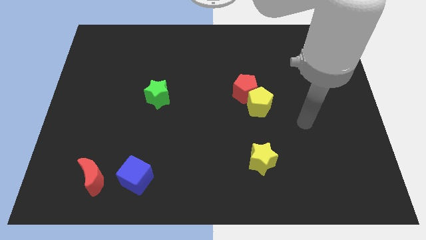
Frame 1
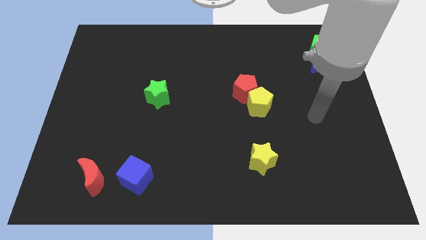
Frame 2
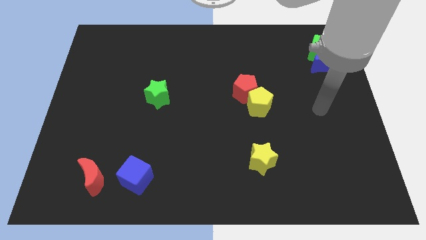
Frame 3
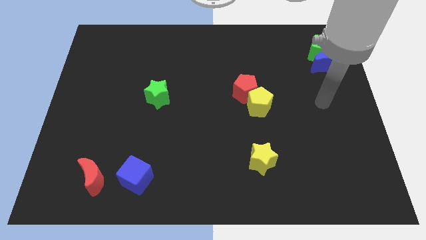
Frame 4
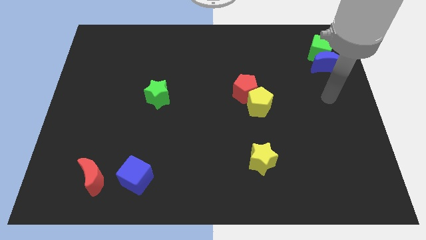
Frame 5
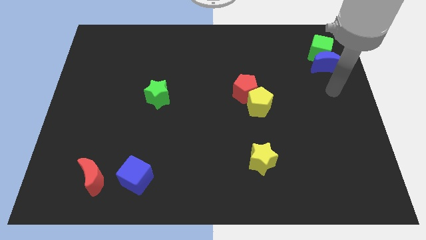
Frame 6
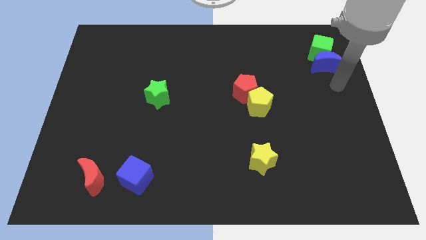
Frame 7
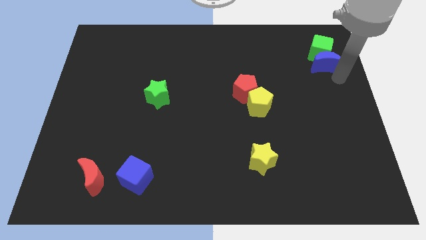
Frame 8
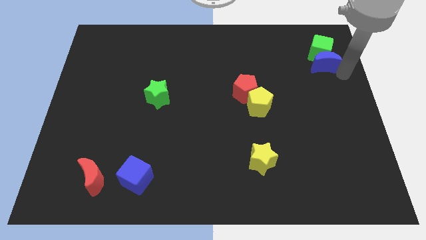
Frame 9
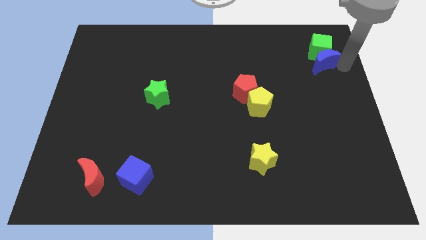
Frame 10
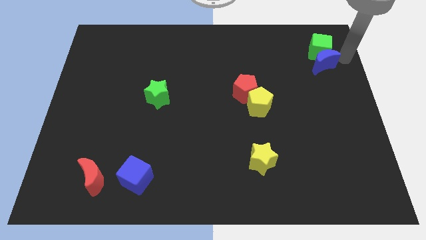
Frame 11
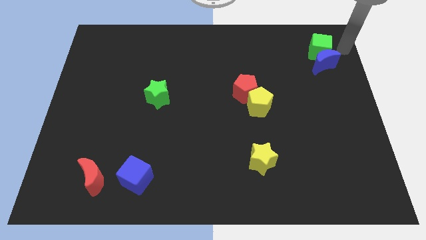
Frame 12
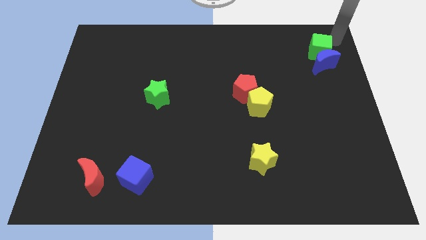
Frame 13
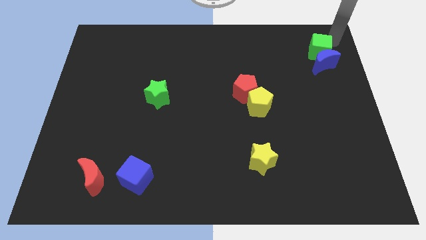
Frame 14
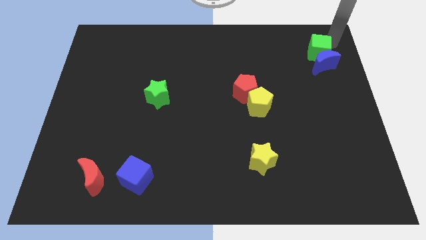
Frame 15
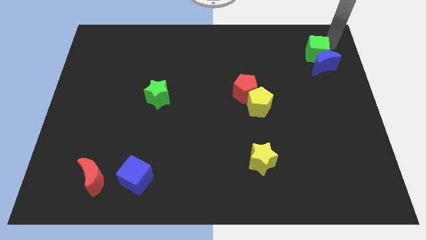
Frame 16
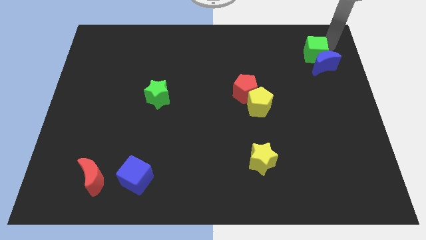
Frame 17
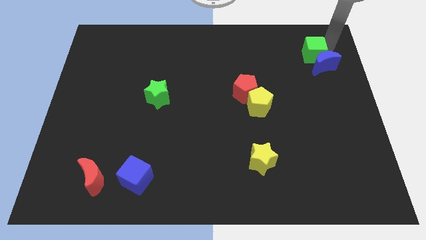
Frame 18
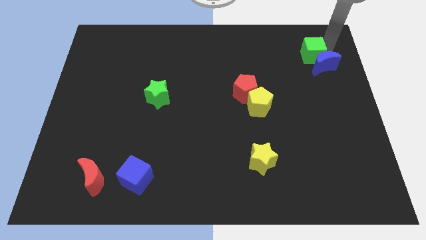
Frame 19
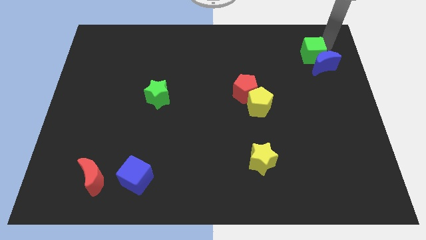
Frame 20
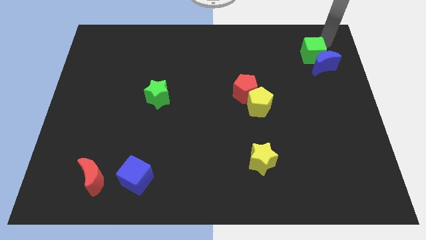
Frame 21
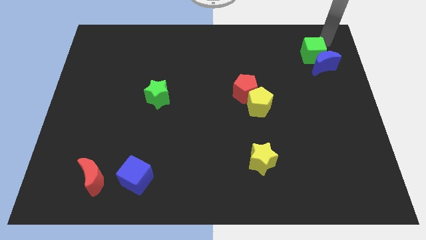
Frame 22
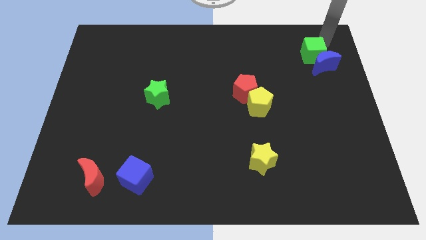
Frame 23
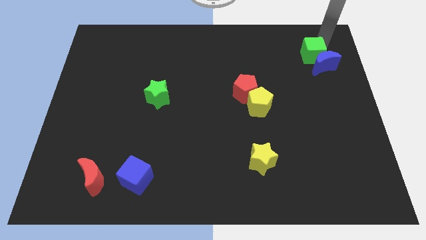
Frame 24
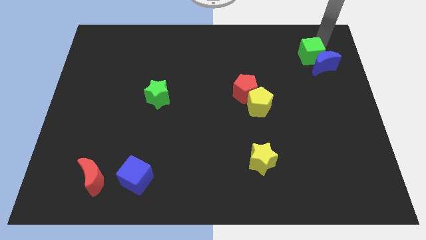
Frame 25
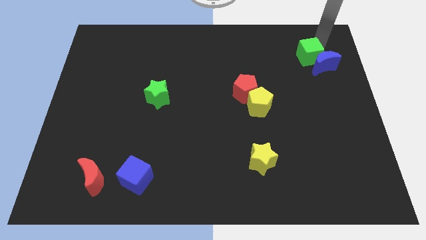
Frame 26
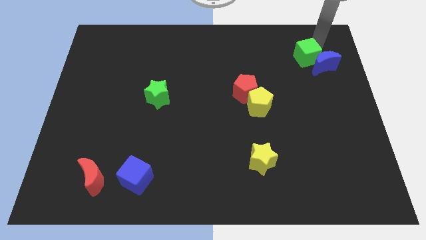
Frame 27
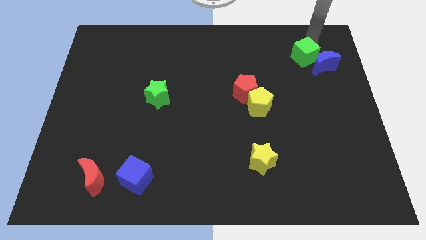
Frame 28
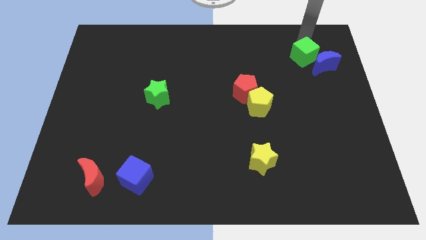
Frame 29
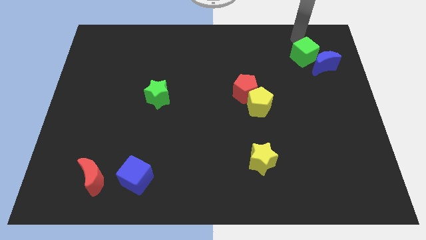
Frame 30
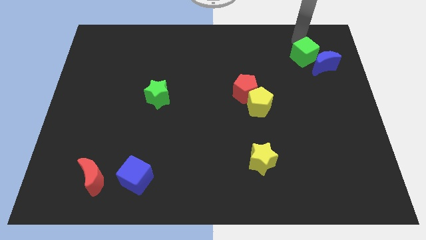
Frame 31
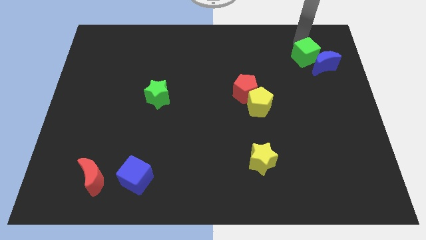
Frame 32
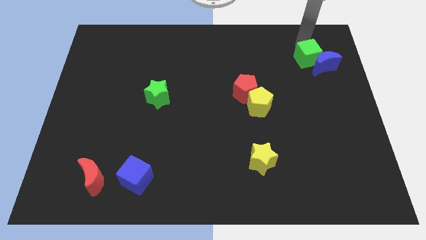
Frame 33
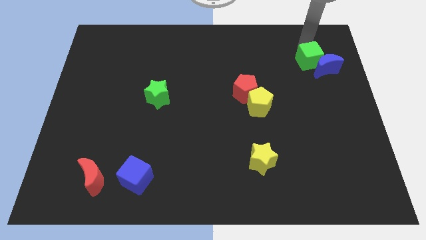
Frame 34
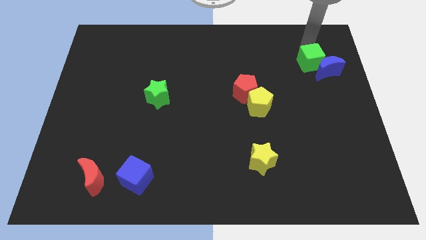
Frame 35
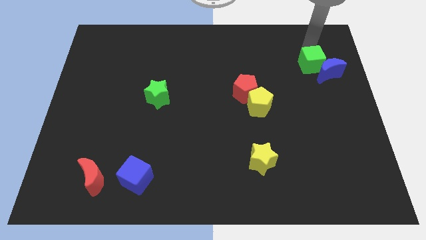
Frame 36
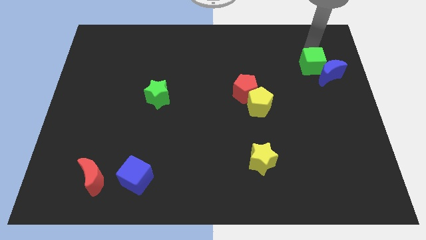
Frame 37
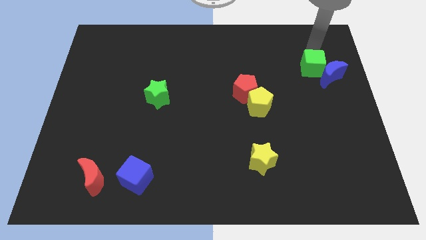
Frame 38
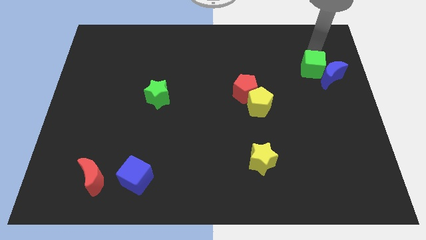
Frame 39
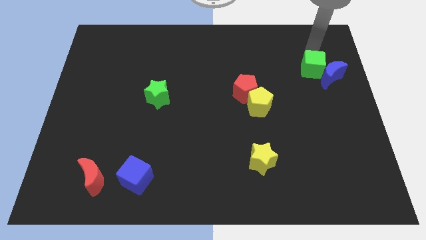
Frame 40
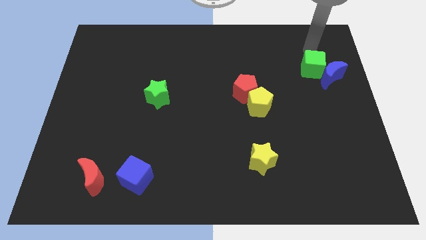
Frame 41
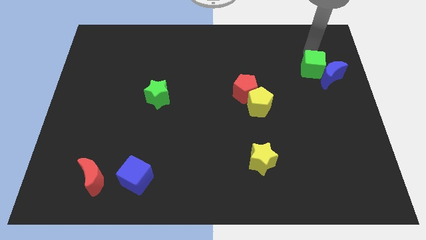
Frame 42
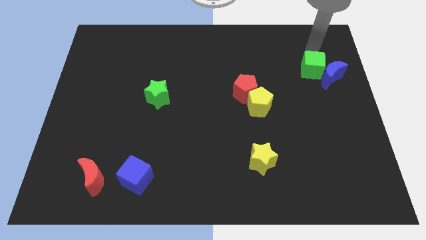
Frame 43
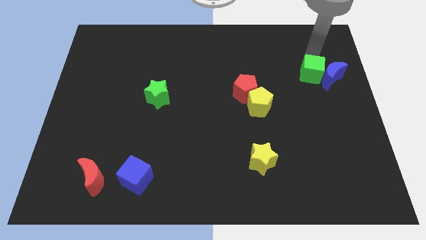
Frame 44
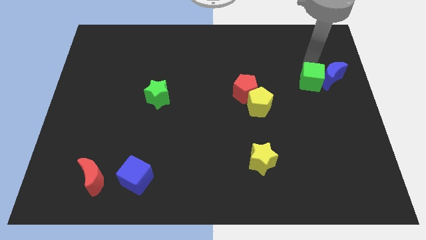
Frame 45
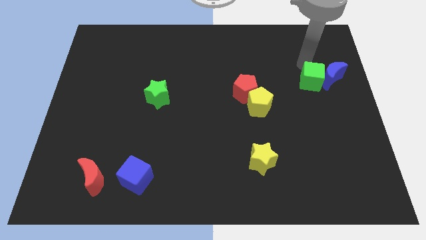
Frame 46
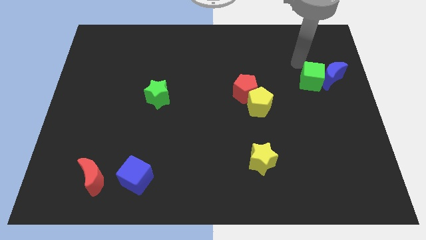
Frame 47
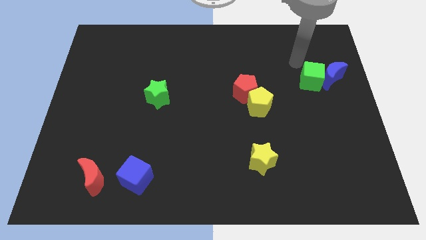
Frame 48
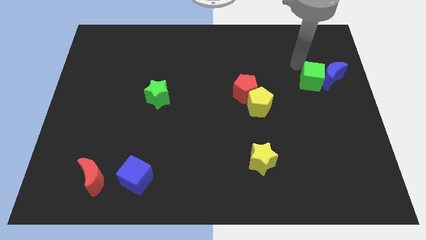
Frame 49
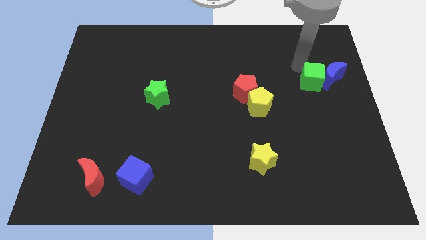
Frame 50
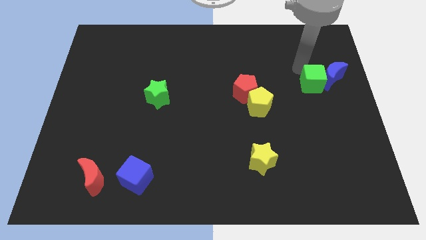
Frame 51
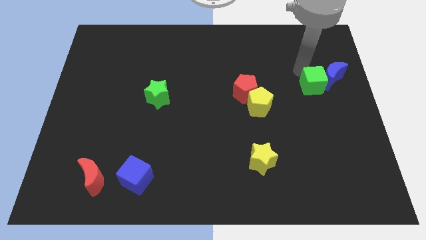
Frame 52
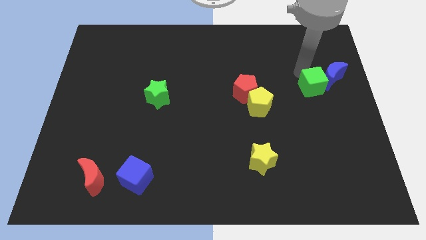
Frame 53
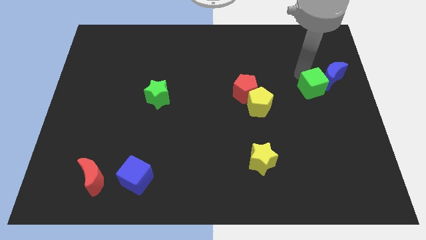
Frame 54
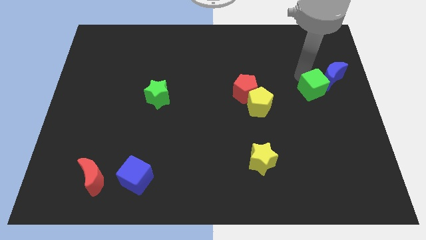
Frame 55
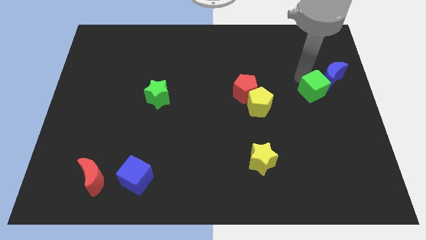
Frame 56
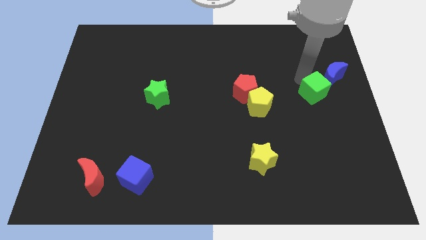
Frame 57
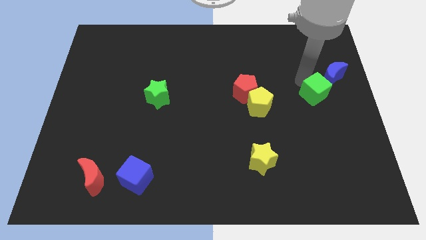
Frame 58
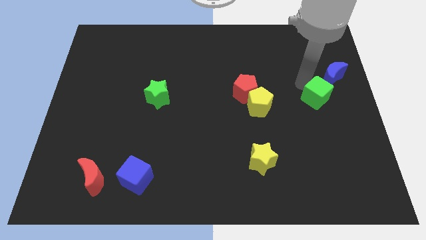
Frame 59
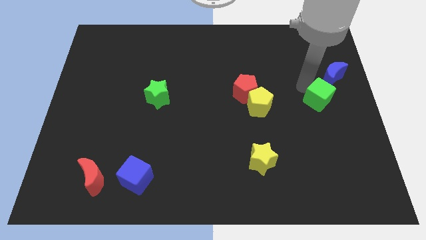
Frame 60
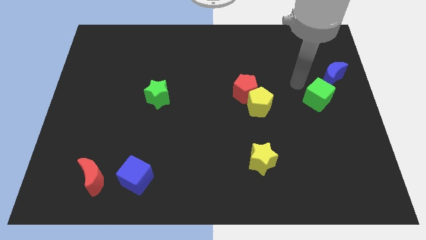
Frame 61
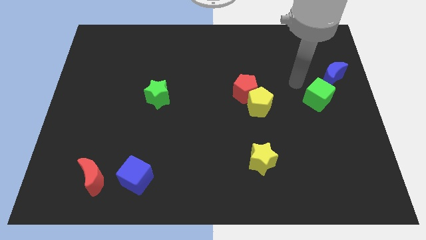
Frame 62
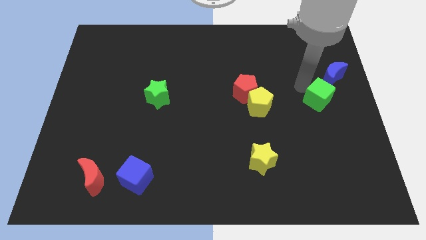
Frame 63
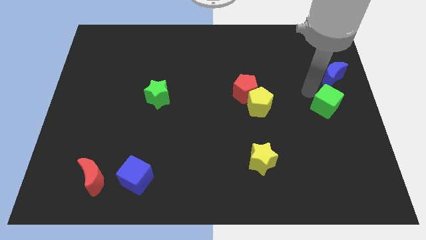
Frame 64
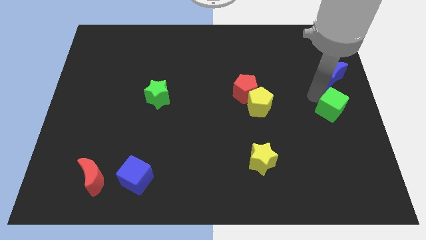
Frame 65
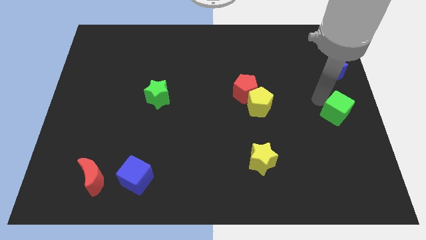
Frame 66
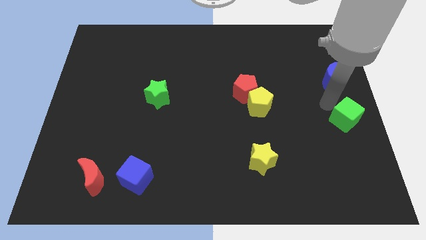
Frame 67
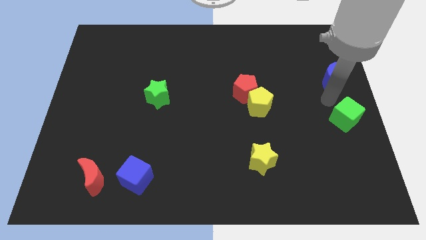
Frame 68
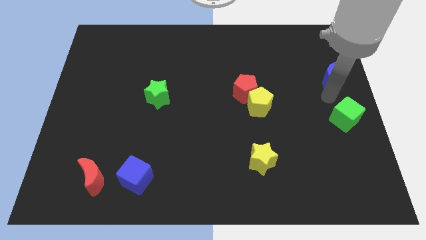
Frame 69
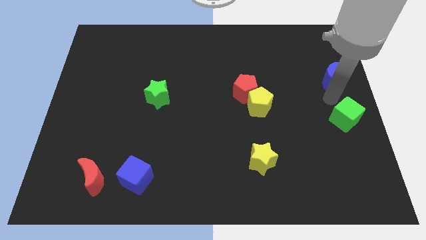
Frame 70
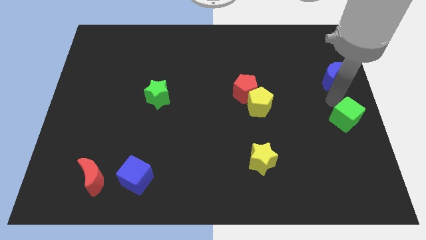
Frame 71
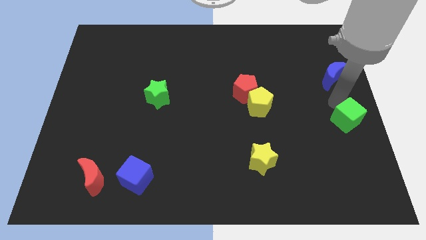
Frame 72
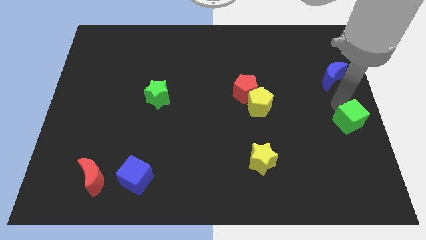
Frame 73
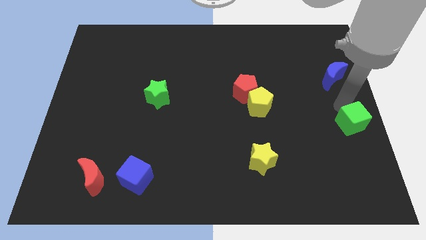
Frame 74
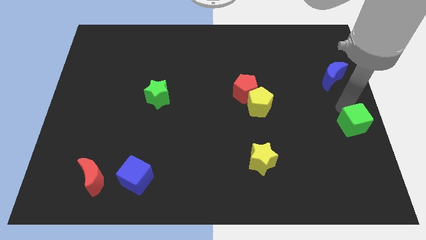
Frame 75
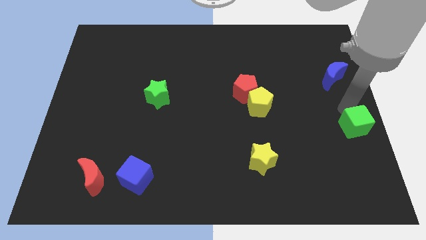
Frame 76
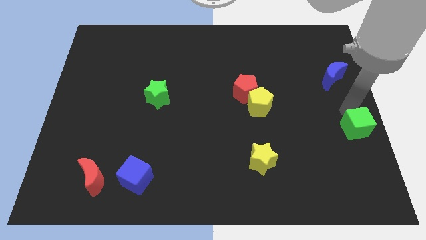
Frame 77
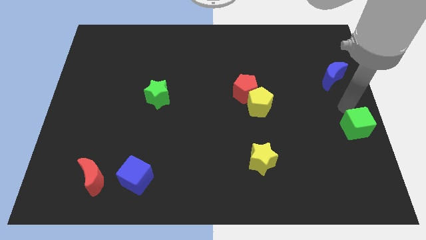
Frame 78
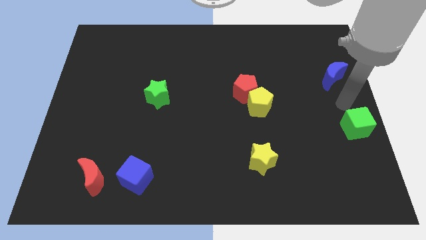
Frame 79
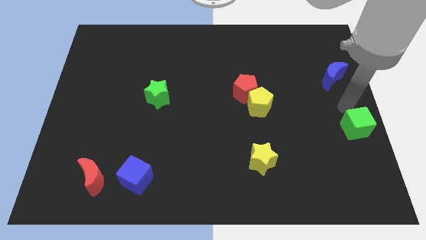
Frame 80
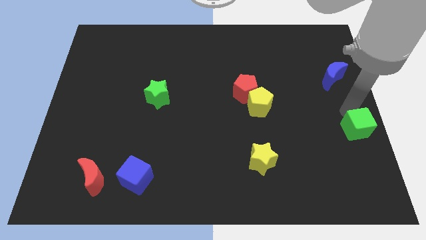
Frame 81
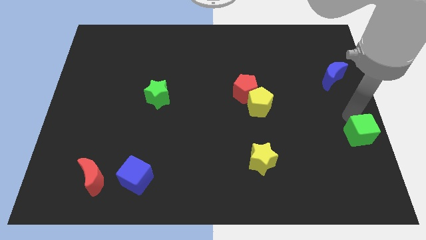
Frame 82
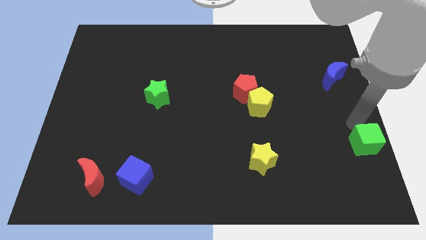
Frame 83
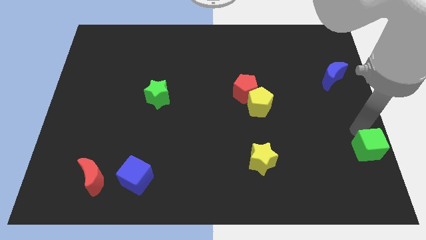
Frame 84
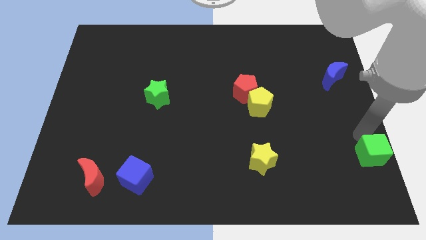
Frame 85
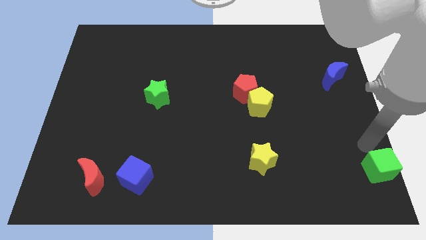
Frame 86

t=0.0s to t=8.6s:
put the green cube to the bottom right
